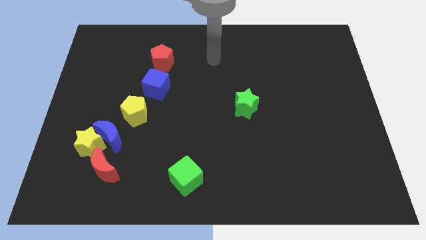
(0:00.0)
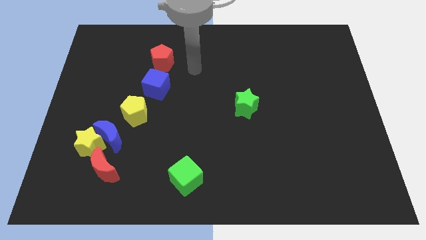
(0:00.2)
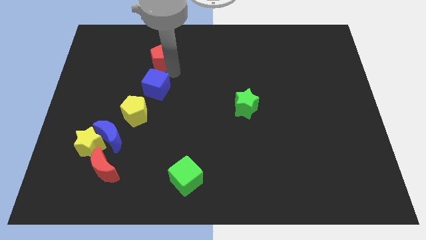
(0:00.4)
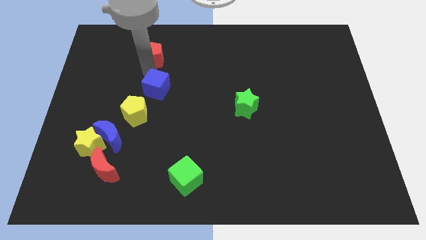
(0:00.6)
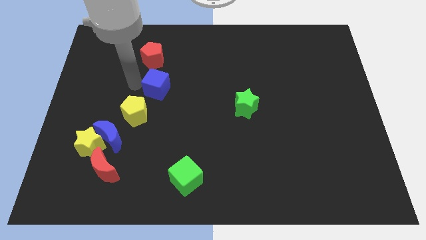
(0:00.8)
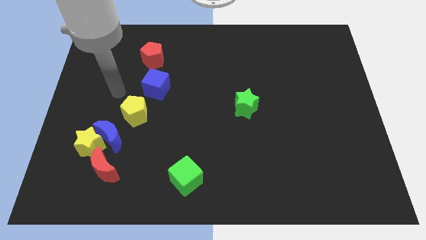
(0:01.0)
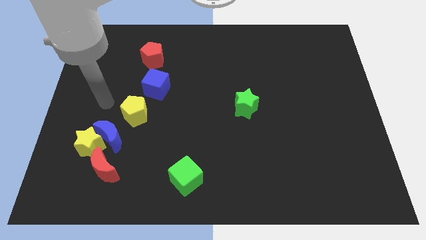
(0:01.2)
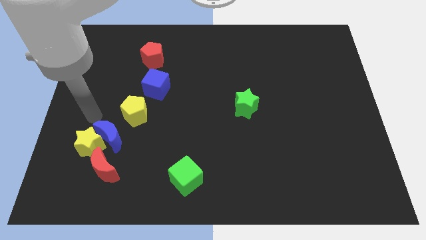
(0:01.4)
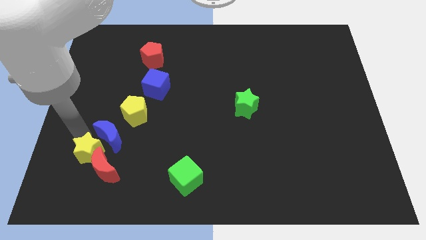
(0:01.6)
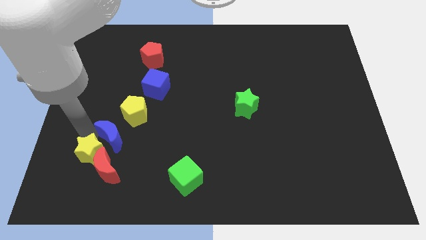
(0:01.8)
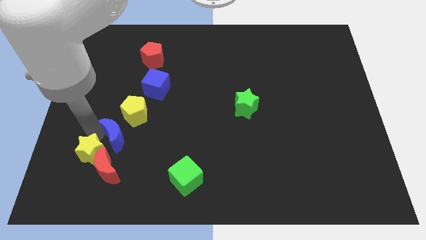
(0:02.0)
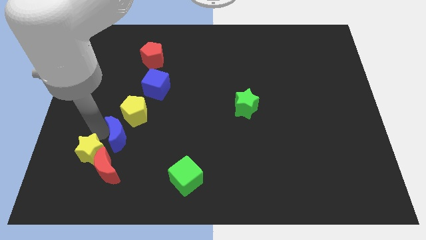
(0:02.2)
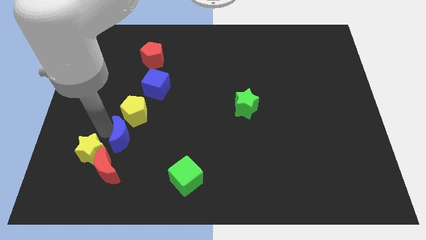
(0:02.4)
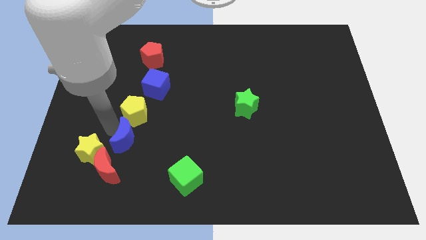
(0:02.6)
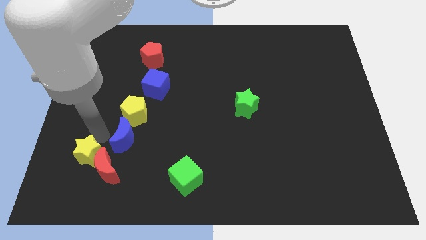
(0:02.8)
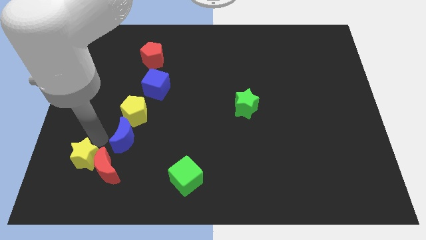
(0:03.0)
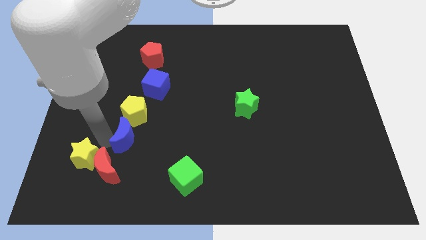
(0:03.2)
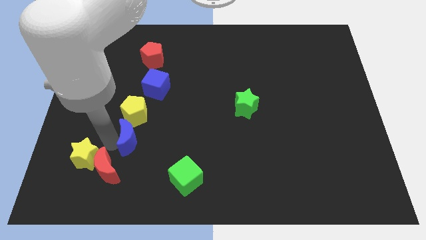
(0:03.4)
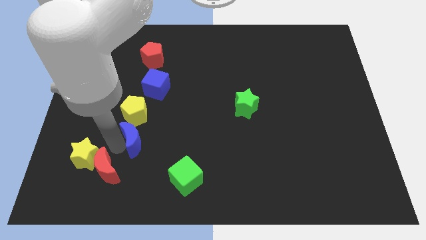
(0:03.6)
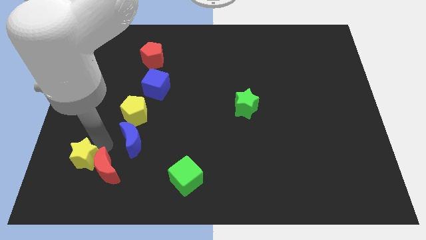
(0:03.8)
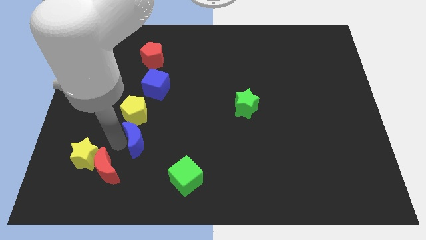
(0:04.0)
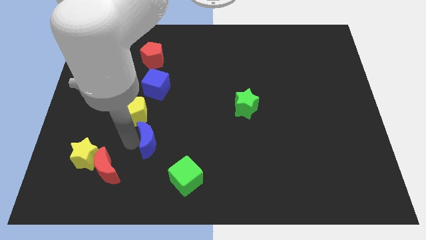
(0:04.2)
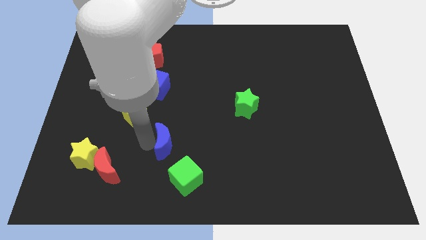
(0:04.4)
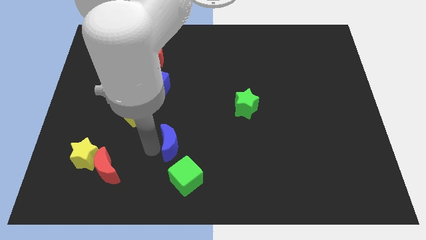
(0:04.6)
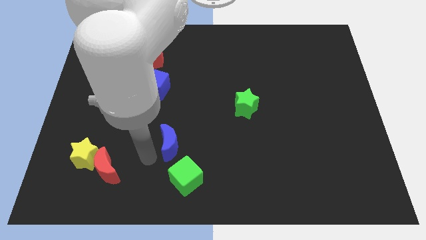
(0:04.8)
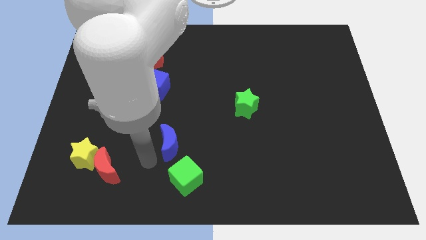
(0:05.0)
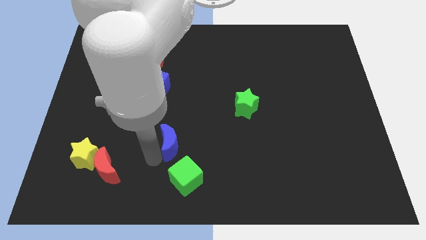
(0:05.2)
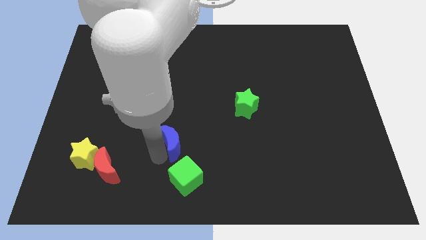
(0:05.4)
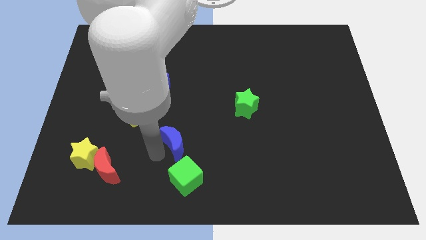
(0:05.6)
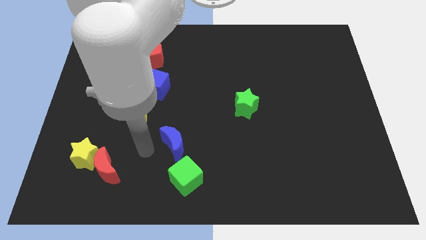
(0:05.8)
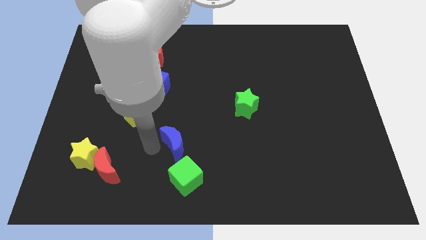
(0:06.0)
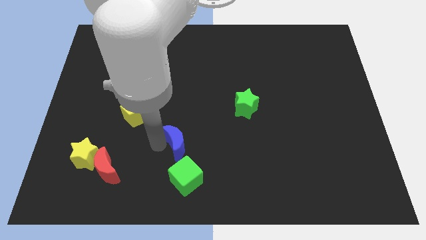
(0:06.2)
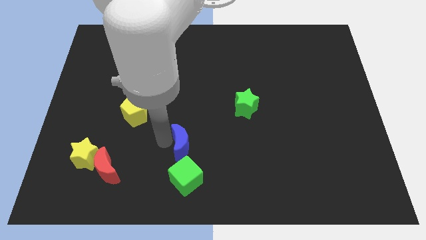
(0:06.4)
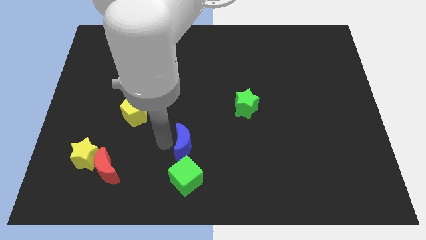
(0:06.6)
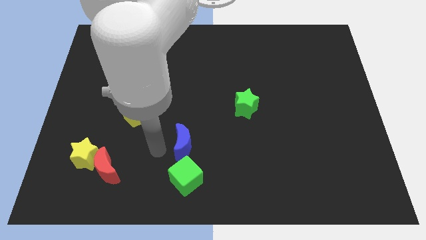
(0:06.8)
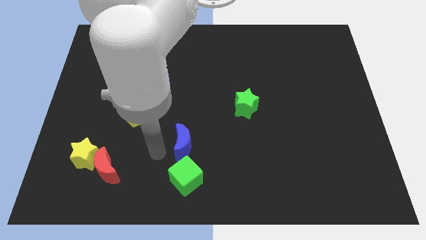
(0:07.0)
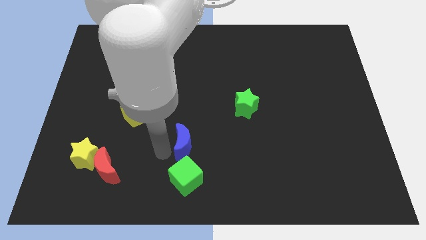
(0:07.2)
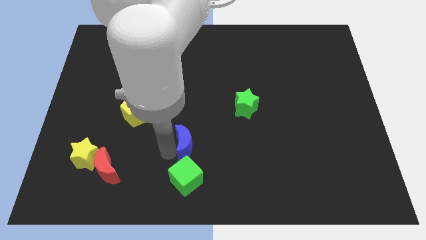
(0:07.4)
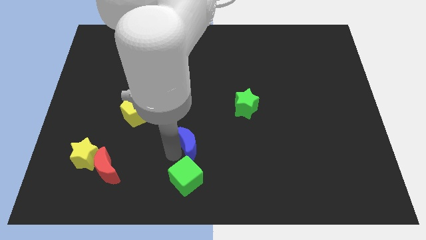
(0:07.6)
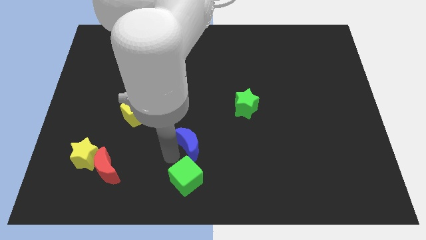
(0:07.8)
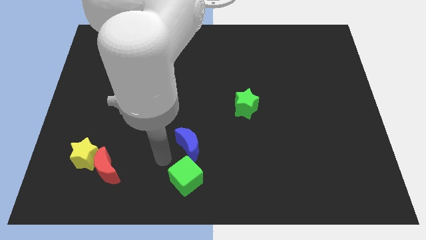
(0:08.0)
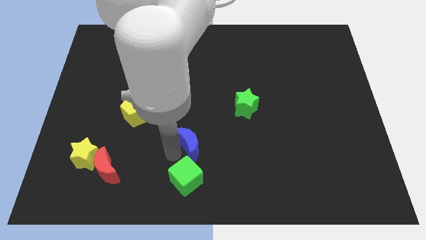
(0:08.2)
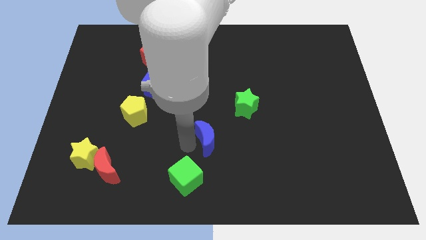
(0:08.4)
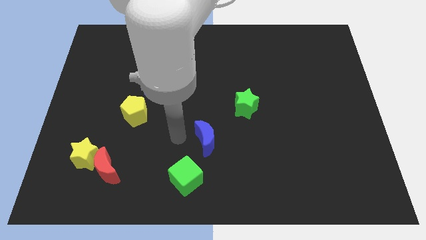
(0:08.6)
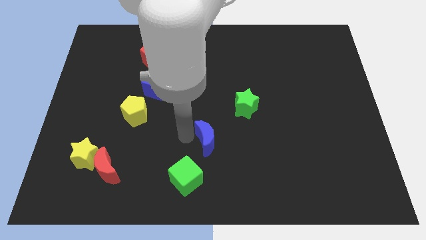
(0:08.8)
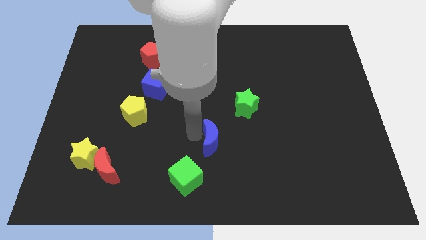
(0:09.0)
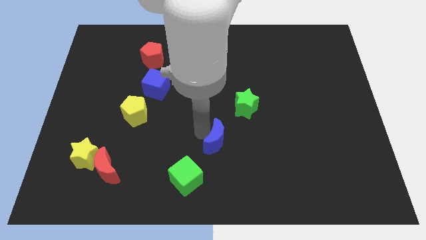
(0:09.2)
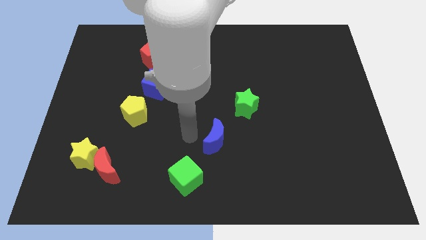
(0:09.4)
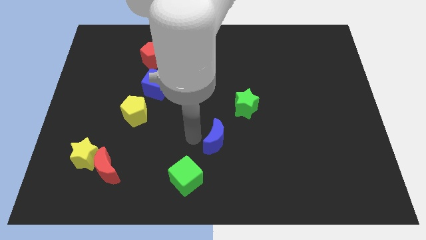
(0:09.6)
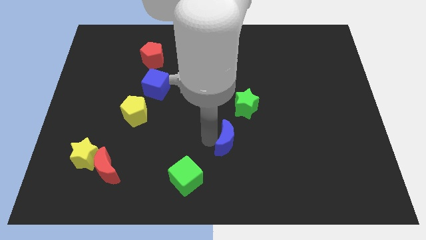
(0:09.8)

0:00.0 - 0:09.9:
put the blue moon to the bottom of the green star

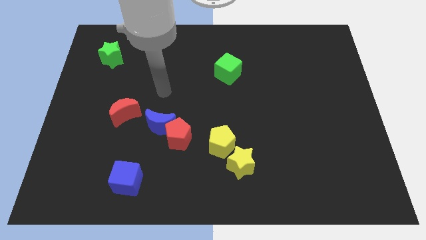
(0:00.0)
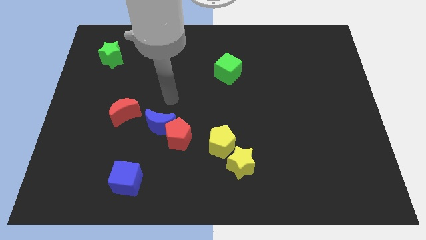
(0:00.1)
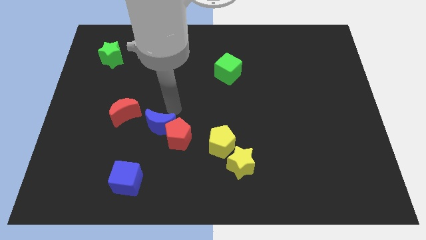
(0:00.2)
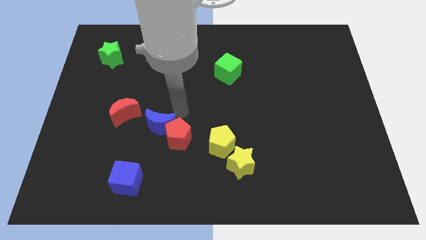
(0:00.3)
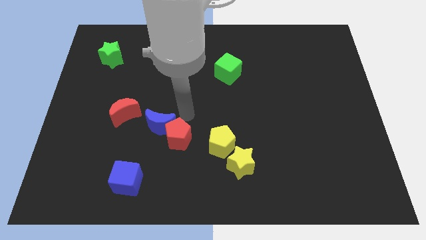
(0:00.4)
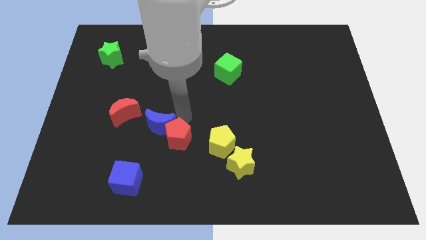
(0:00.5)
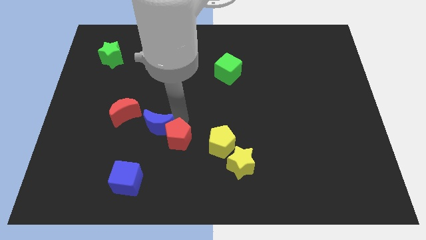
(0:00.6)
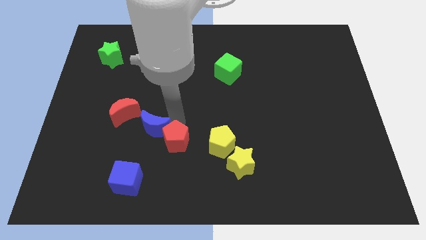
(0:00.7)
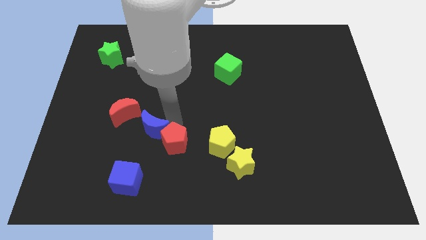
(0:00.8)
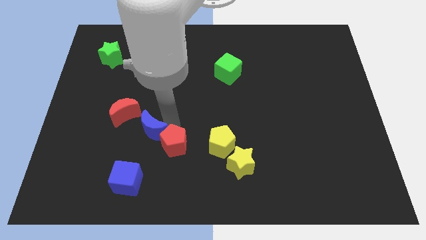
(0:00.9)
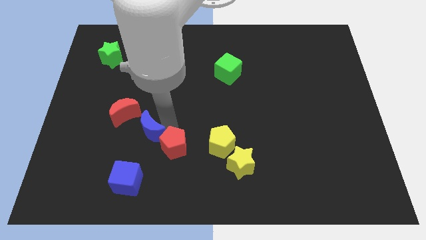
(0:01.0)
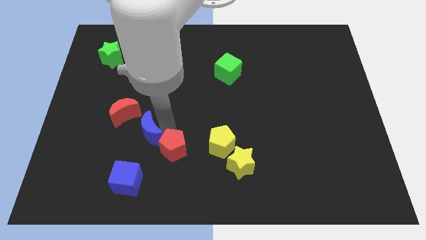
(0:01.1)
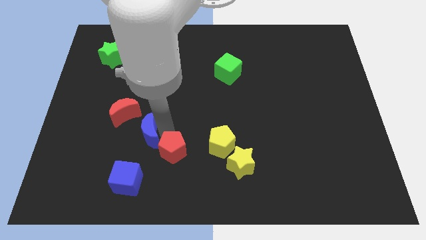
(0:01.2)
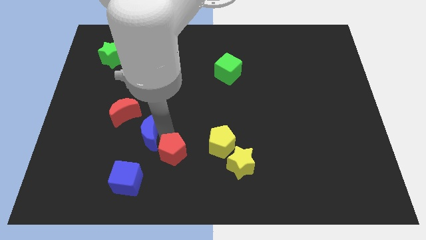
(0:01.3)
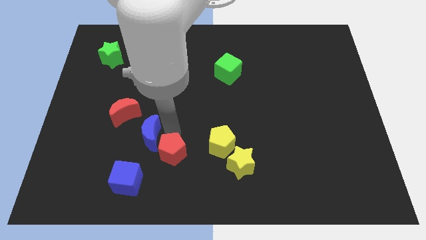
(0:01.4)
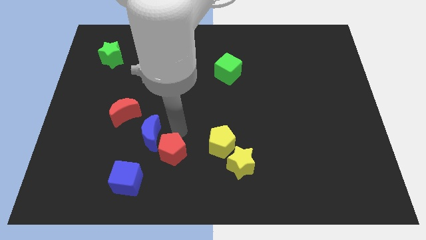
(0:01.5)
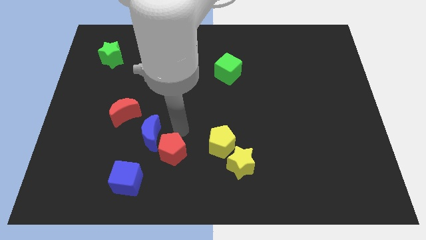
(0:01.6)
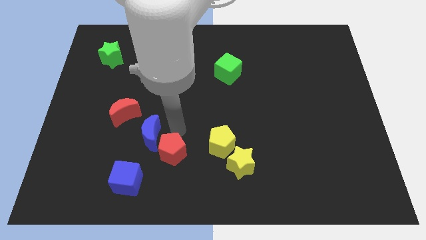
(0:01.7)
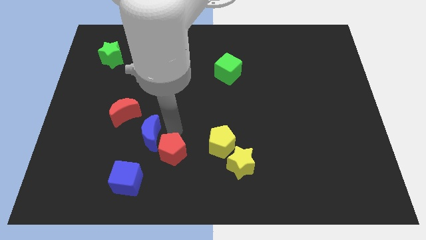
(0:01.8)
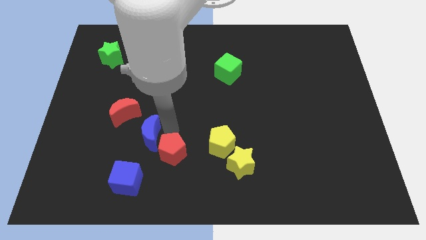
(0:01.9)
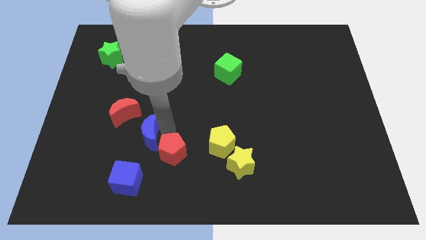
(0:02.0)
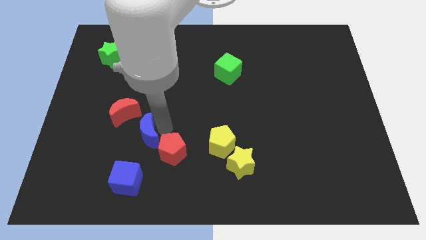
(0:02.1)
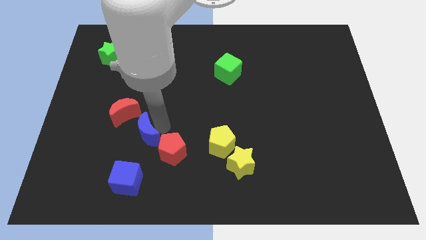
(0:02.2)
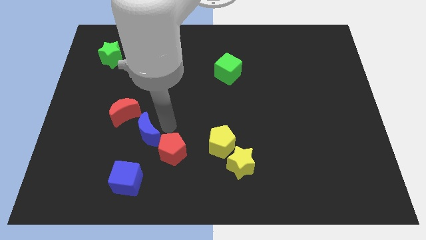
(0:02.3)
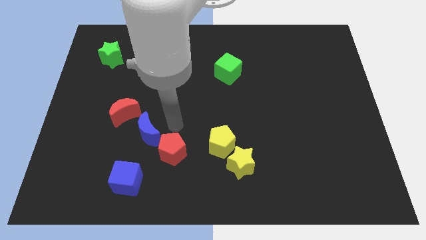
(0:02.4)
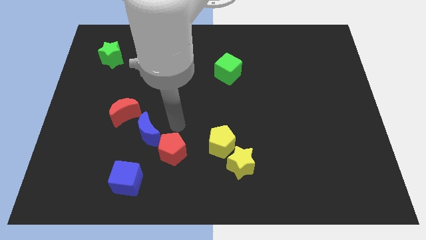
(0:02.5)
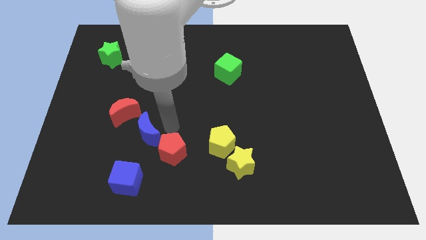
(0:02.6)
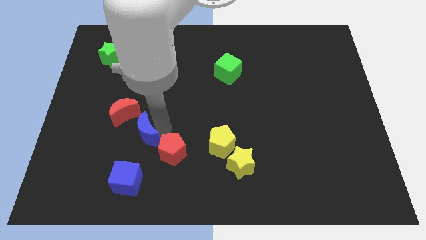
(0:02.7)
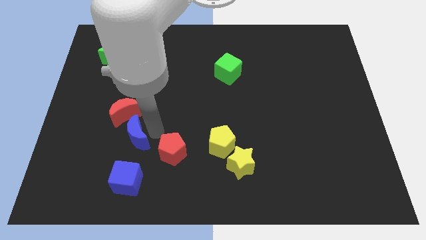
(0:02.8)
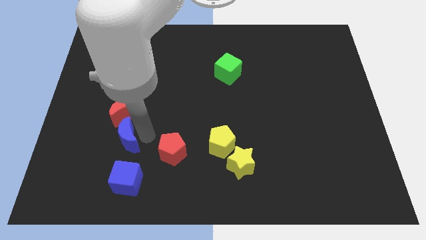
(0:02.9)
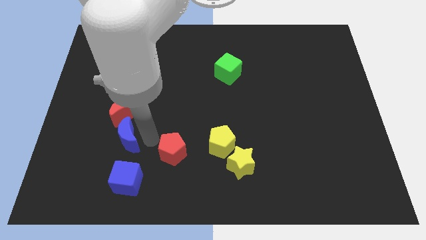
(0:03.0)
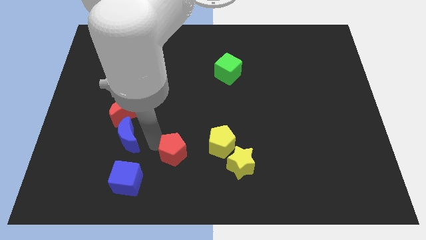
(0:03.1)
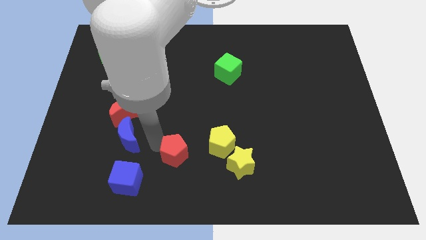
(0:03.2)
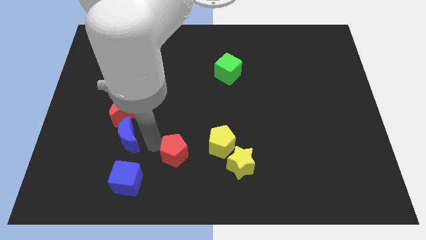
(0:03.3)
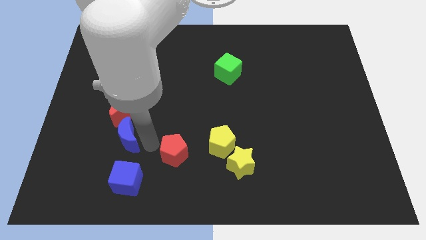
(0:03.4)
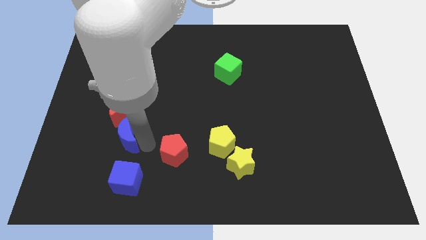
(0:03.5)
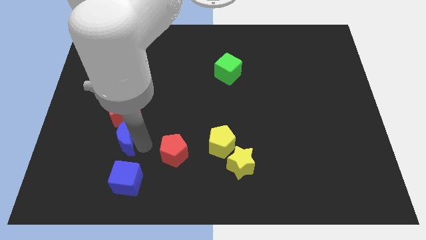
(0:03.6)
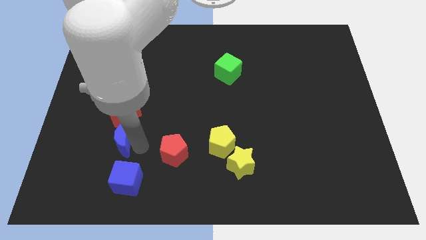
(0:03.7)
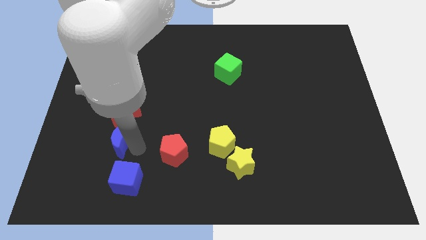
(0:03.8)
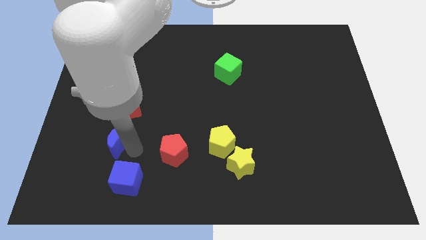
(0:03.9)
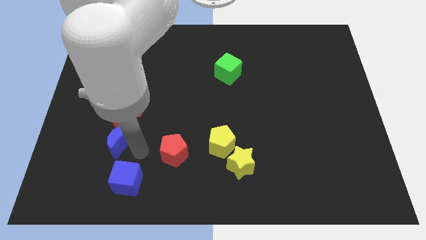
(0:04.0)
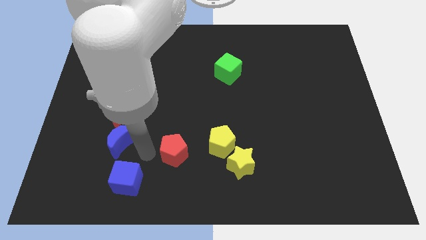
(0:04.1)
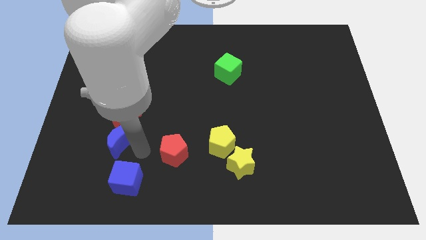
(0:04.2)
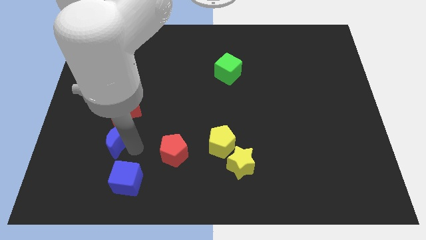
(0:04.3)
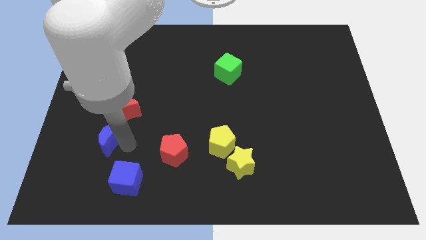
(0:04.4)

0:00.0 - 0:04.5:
push the blue moon to the bottom left of the red moon
